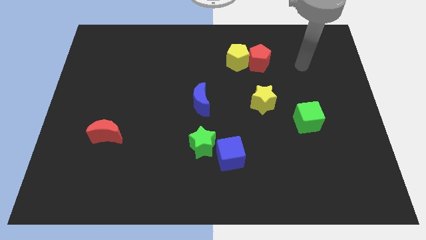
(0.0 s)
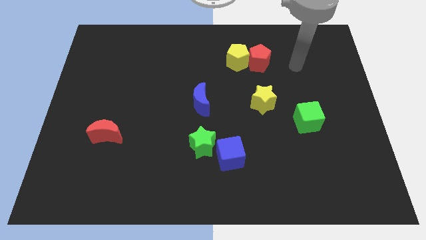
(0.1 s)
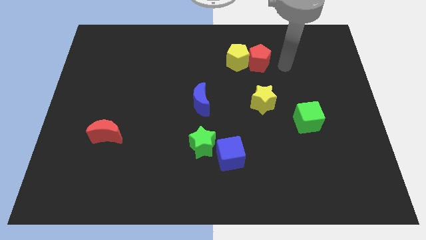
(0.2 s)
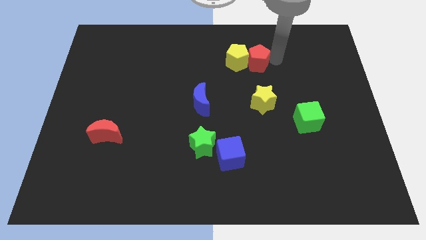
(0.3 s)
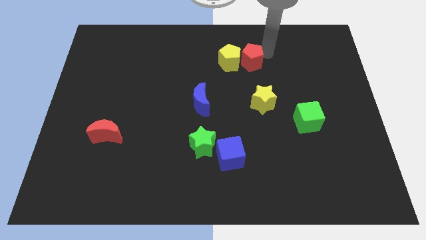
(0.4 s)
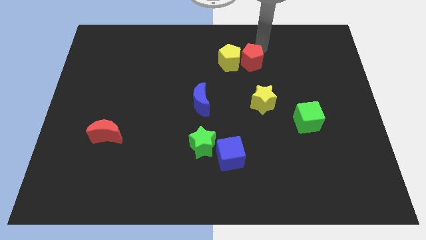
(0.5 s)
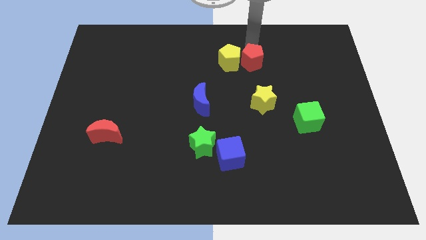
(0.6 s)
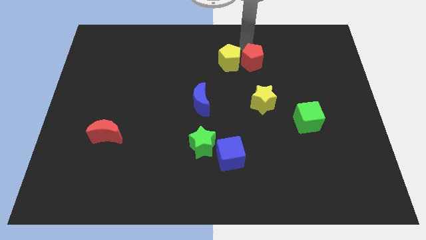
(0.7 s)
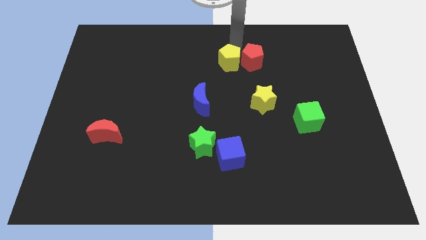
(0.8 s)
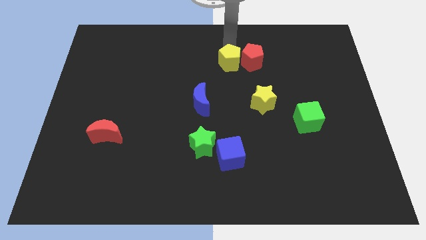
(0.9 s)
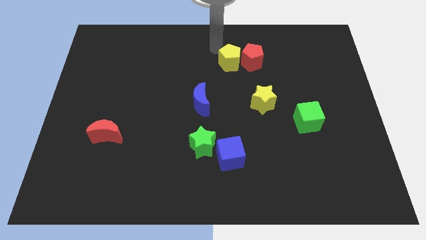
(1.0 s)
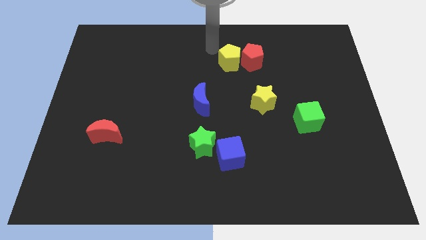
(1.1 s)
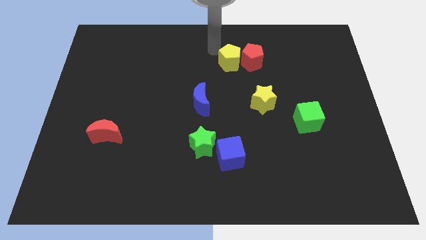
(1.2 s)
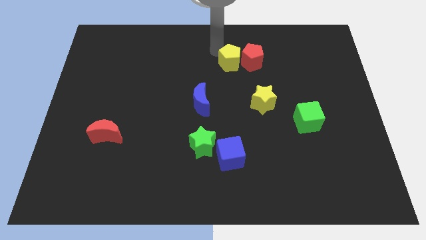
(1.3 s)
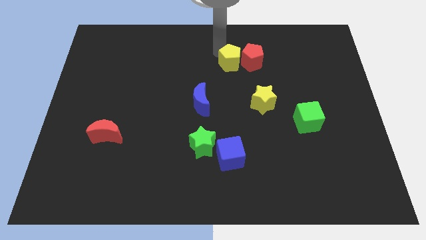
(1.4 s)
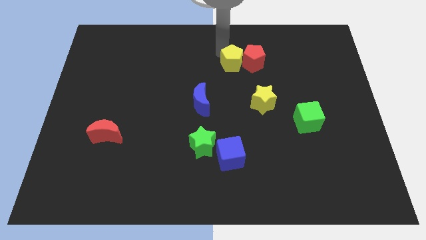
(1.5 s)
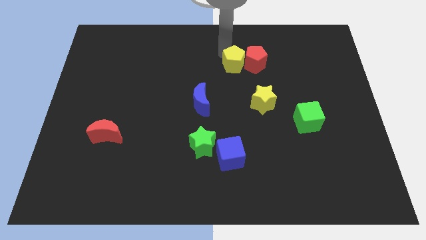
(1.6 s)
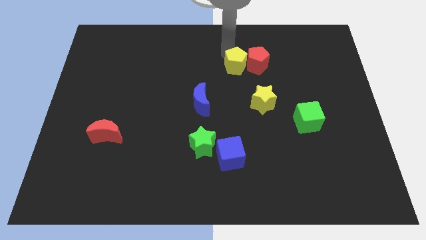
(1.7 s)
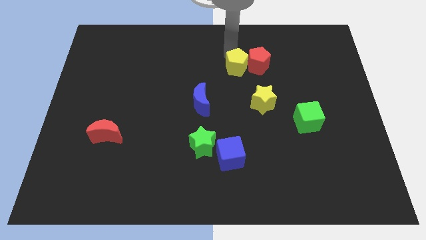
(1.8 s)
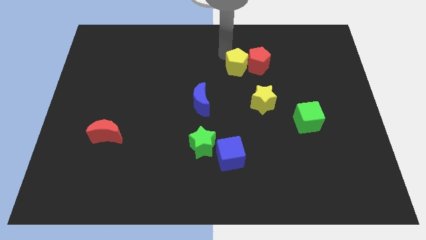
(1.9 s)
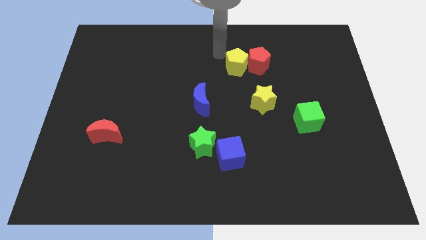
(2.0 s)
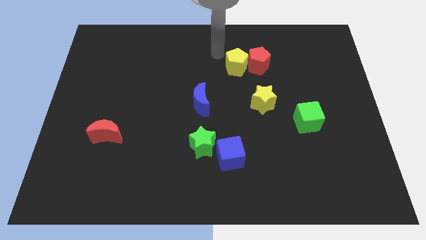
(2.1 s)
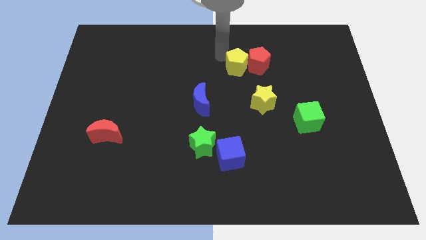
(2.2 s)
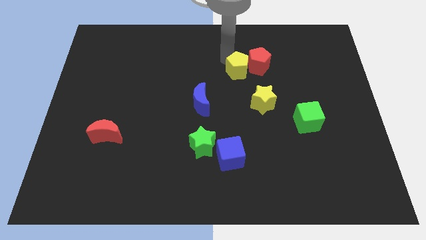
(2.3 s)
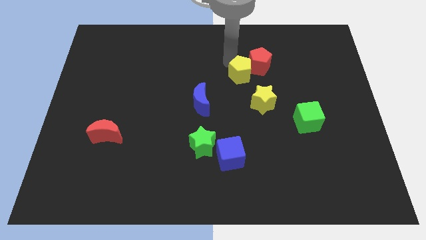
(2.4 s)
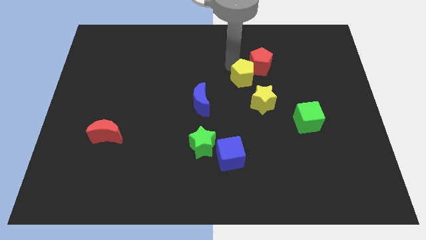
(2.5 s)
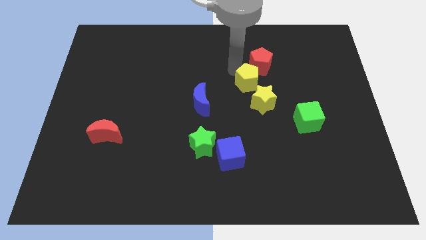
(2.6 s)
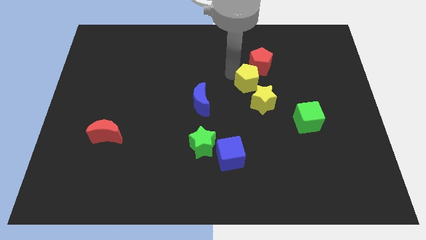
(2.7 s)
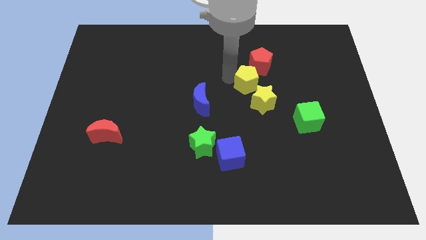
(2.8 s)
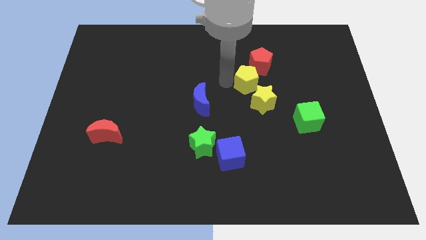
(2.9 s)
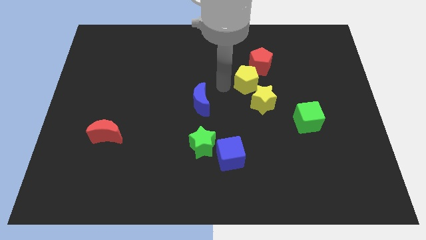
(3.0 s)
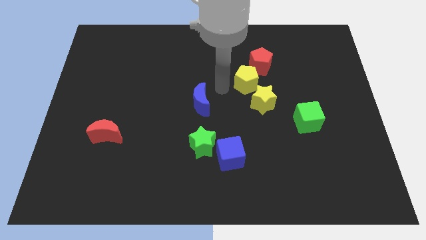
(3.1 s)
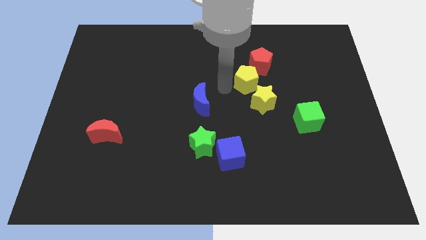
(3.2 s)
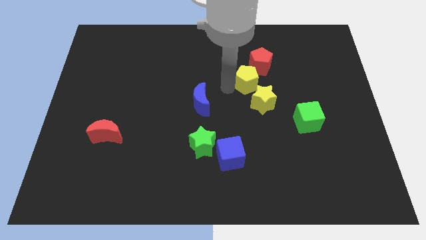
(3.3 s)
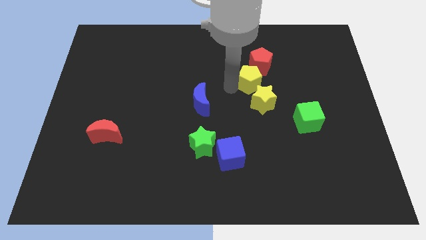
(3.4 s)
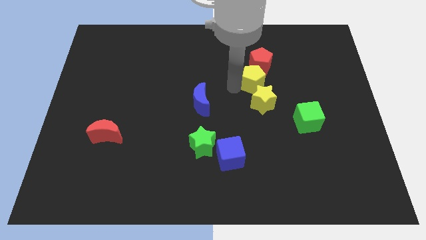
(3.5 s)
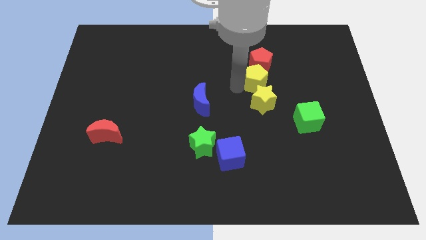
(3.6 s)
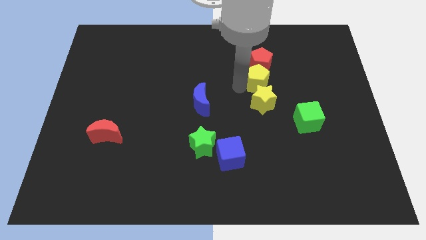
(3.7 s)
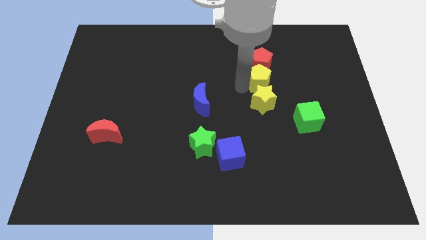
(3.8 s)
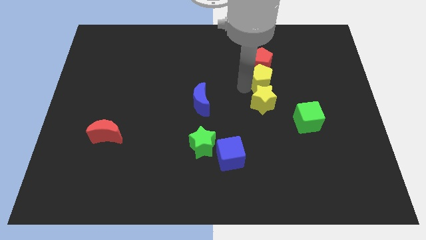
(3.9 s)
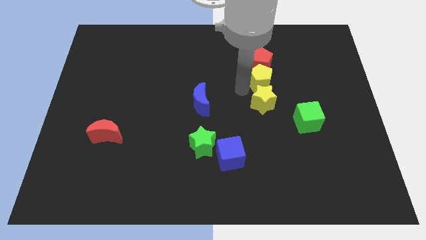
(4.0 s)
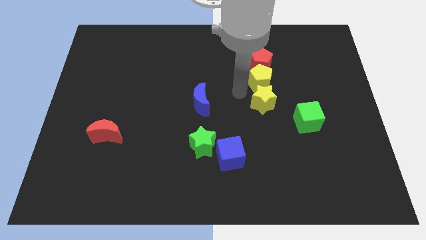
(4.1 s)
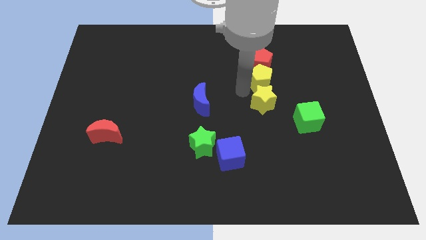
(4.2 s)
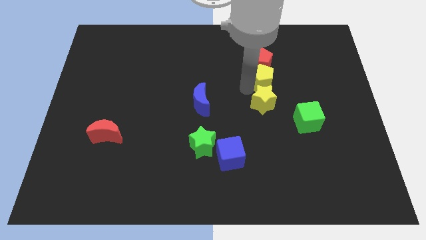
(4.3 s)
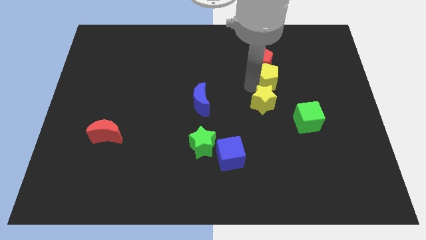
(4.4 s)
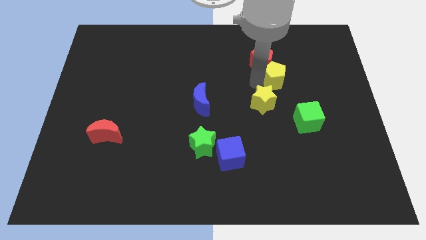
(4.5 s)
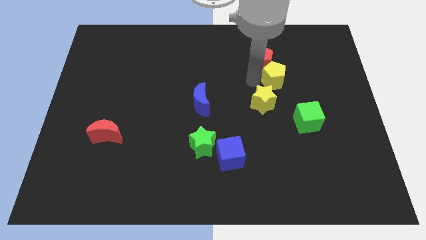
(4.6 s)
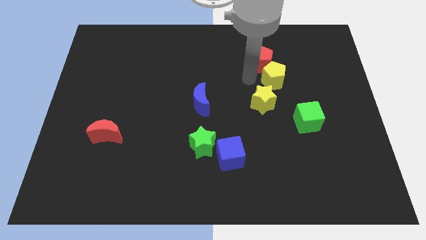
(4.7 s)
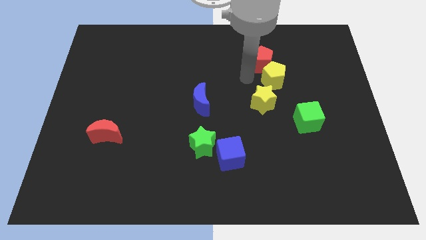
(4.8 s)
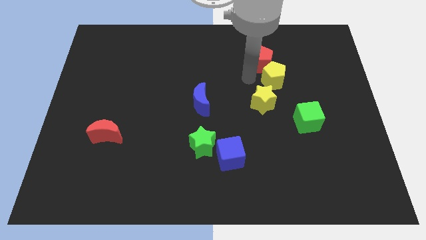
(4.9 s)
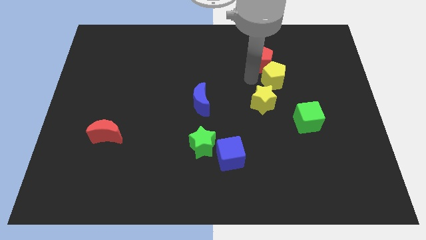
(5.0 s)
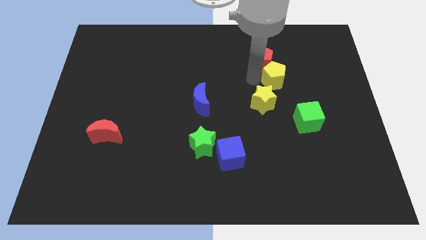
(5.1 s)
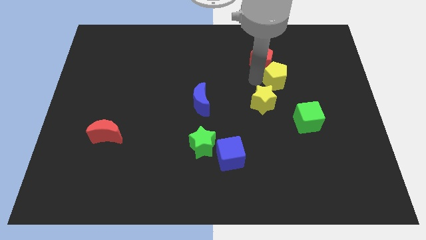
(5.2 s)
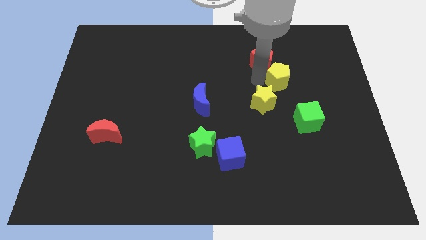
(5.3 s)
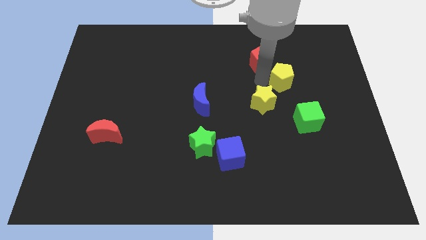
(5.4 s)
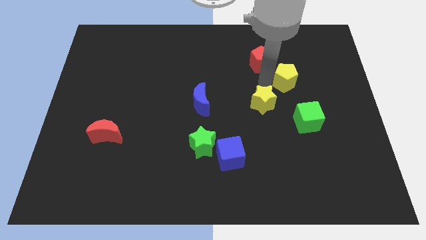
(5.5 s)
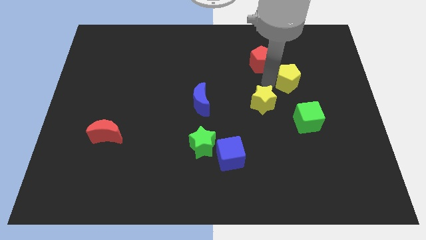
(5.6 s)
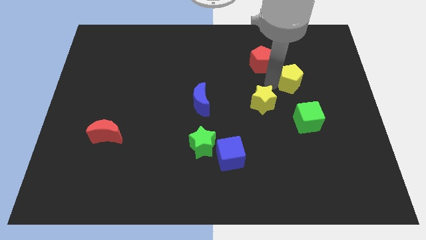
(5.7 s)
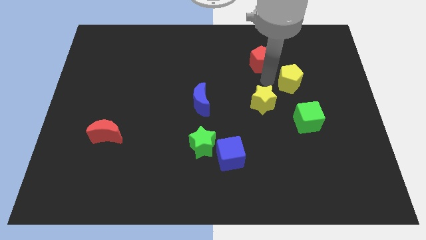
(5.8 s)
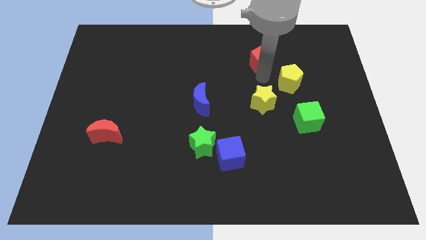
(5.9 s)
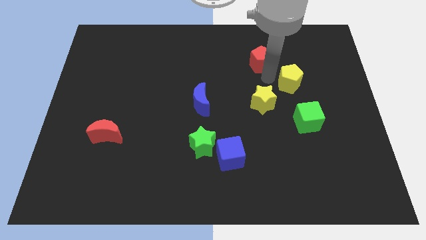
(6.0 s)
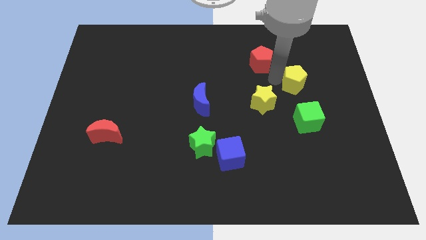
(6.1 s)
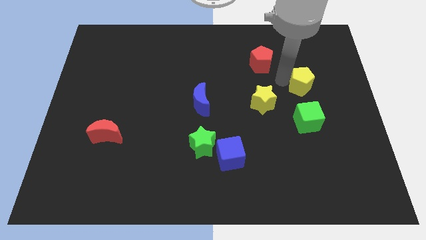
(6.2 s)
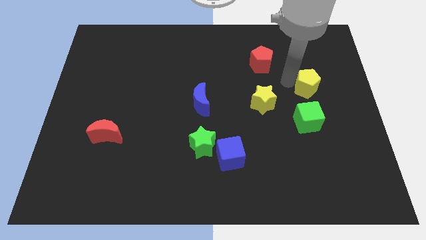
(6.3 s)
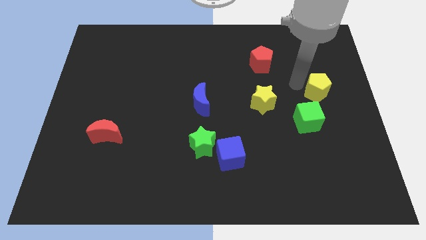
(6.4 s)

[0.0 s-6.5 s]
slide the yellow pentagon to the right side

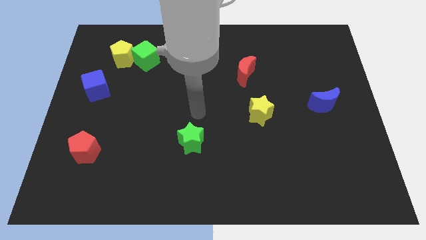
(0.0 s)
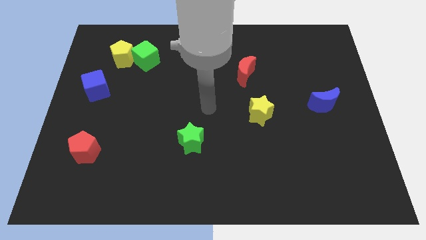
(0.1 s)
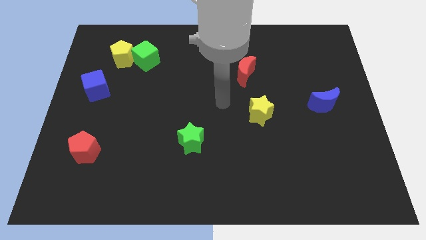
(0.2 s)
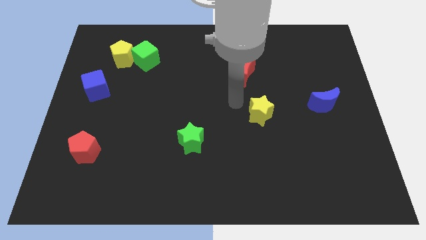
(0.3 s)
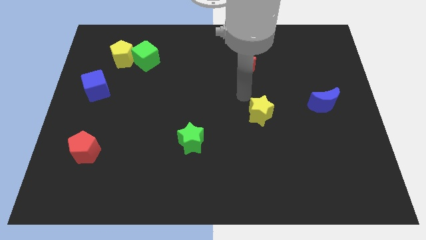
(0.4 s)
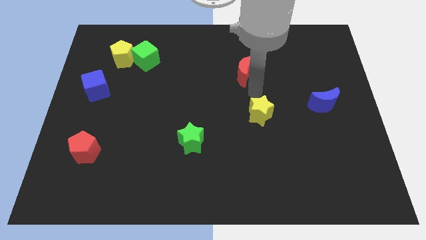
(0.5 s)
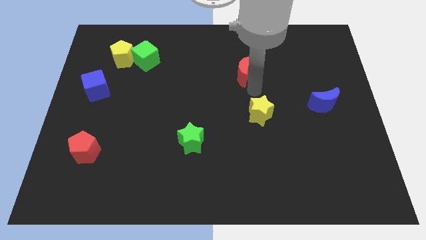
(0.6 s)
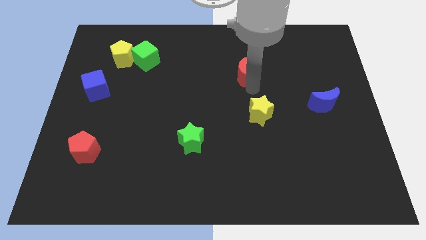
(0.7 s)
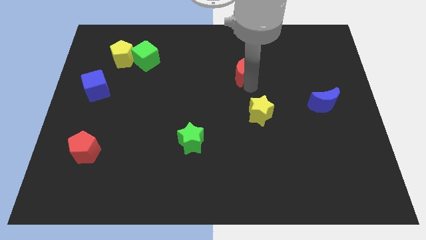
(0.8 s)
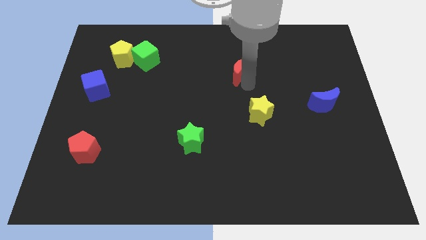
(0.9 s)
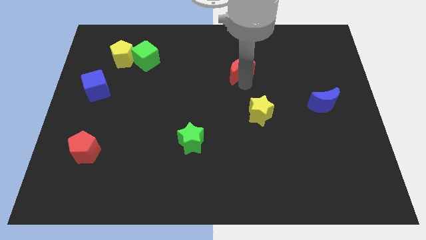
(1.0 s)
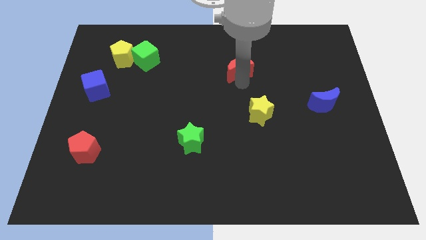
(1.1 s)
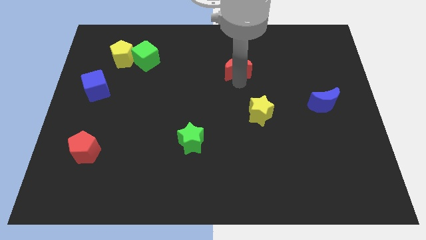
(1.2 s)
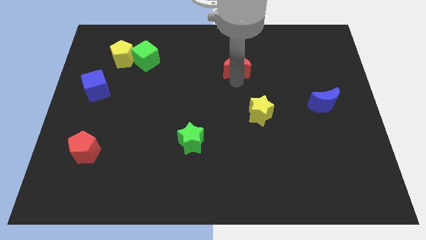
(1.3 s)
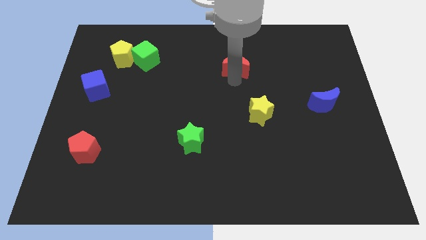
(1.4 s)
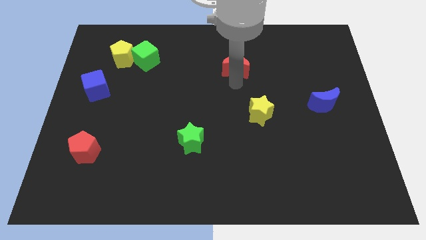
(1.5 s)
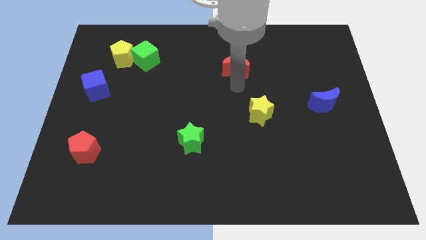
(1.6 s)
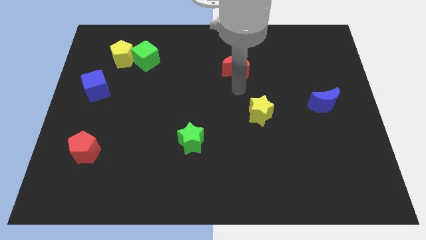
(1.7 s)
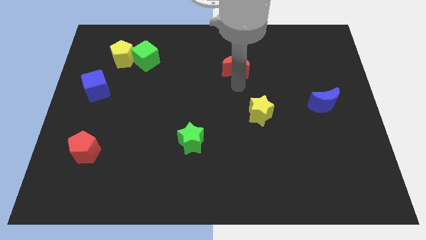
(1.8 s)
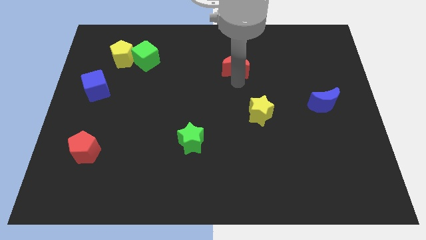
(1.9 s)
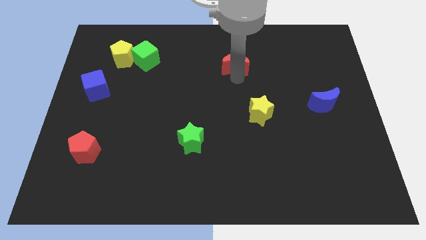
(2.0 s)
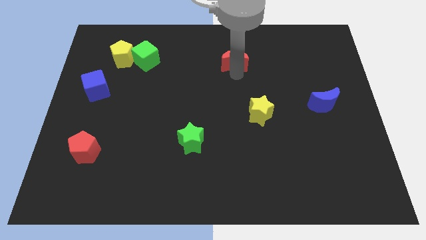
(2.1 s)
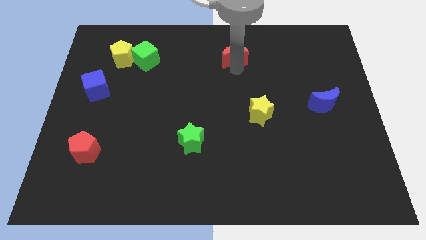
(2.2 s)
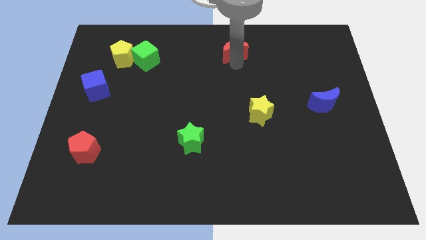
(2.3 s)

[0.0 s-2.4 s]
slide the red moon to the top side
